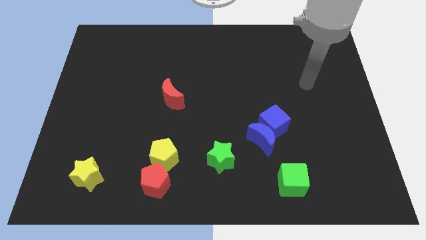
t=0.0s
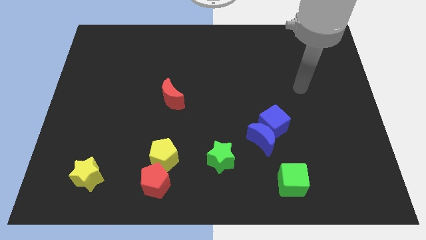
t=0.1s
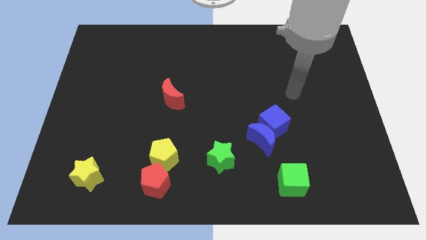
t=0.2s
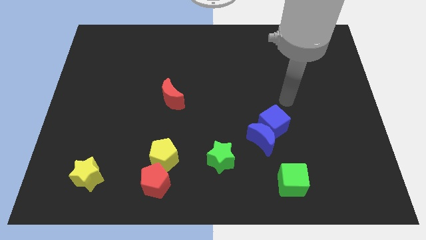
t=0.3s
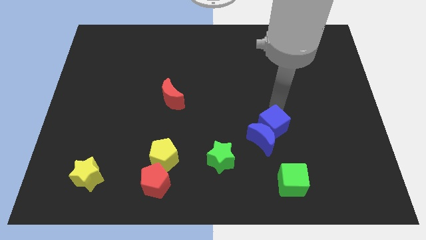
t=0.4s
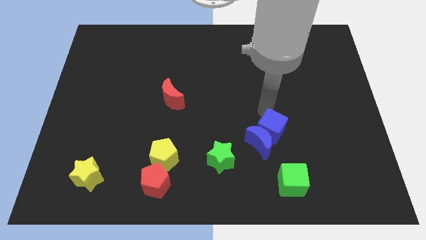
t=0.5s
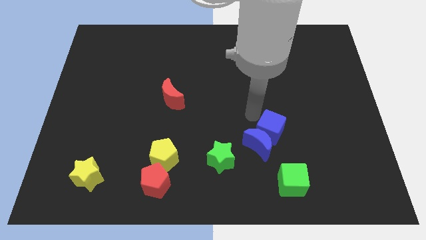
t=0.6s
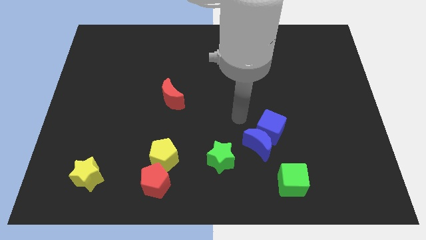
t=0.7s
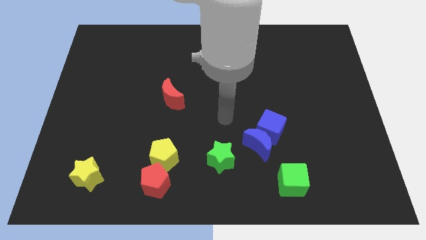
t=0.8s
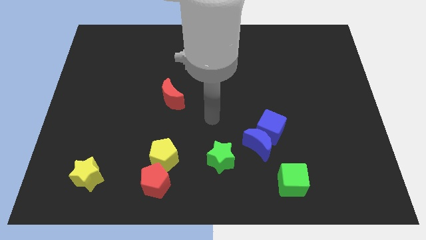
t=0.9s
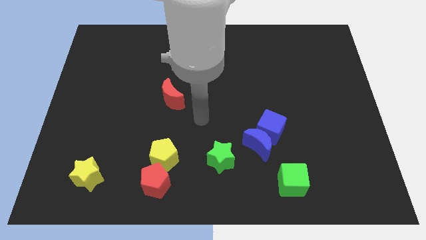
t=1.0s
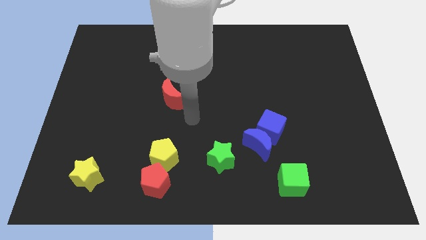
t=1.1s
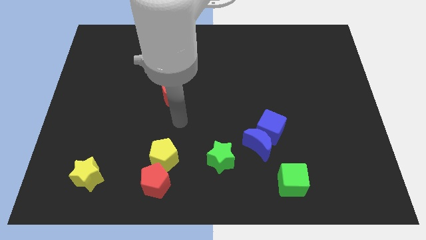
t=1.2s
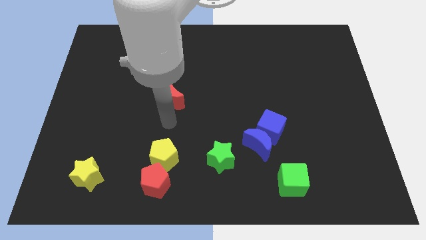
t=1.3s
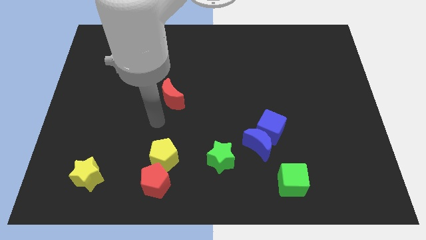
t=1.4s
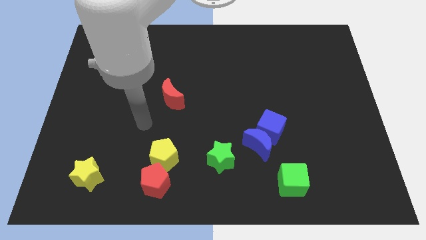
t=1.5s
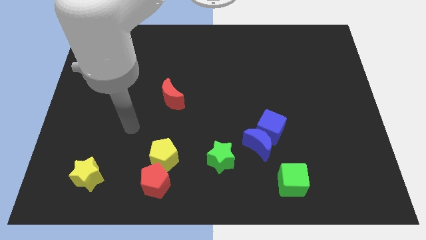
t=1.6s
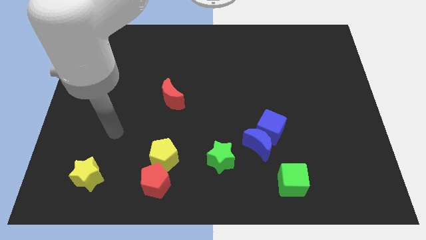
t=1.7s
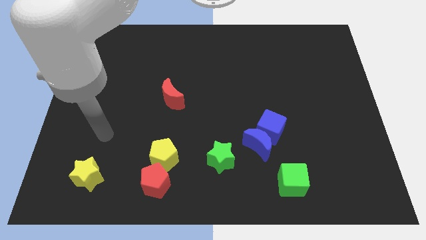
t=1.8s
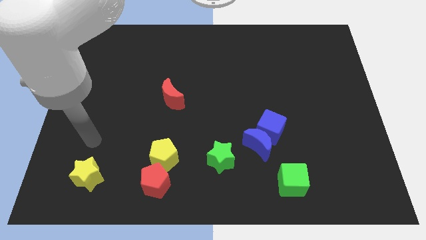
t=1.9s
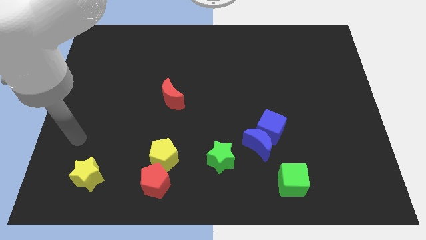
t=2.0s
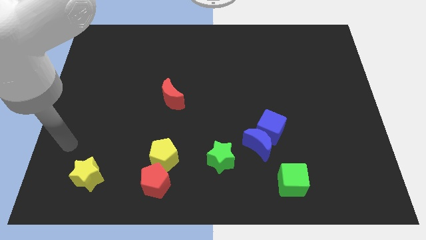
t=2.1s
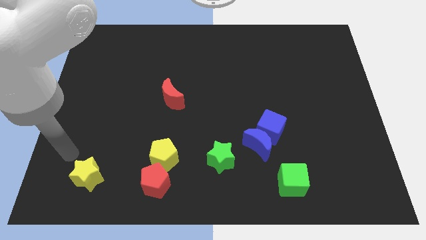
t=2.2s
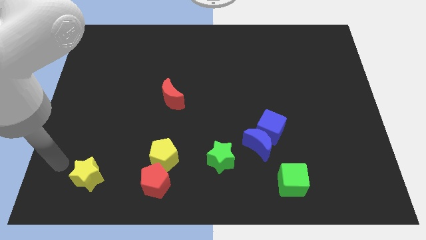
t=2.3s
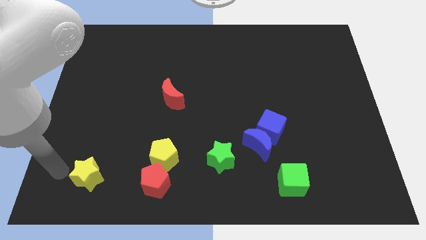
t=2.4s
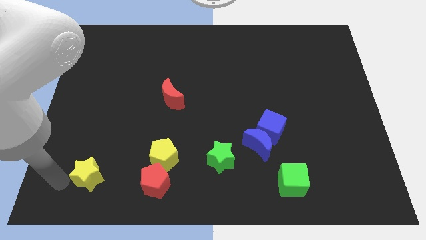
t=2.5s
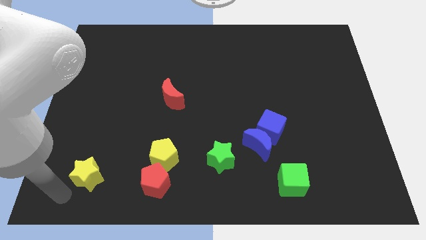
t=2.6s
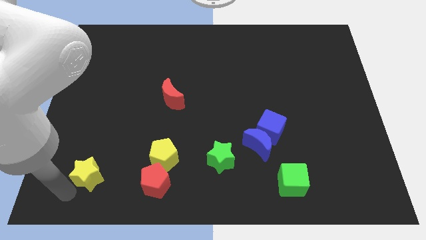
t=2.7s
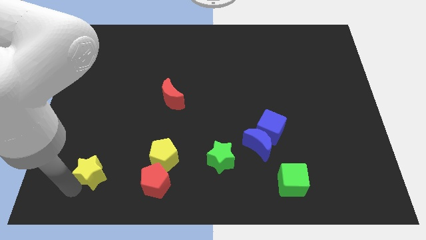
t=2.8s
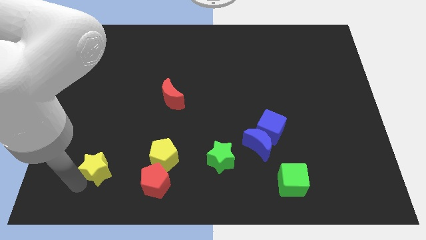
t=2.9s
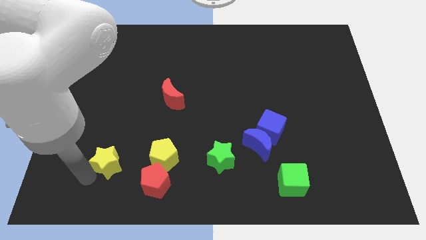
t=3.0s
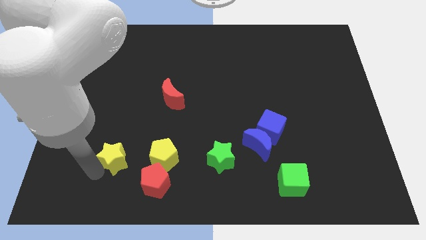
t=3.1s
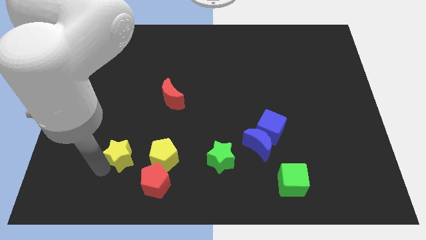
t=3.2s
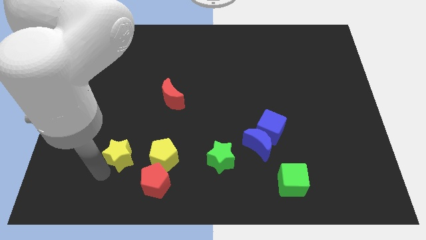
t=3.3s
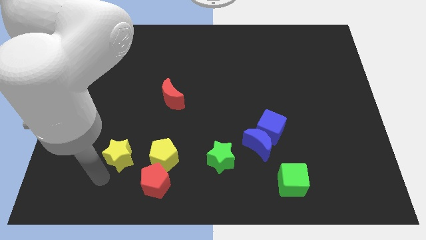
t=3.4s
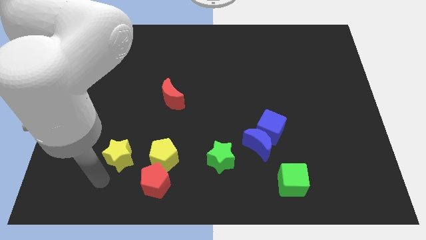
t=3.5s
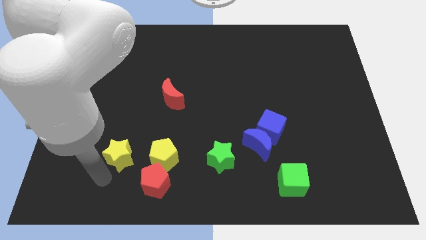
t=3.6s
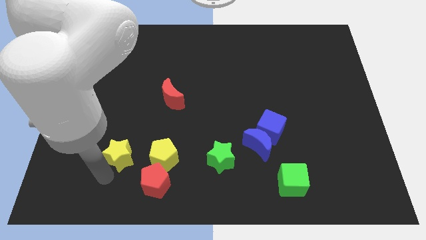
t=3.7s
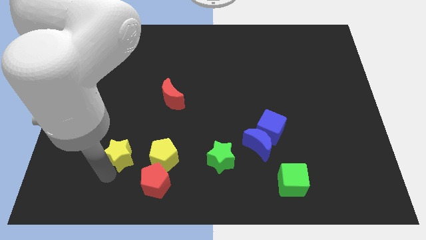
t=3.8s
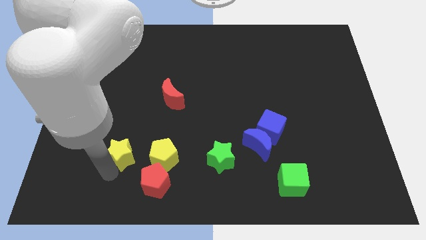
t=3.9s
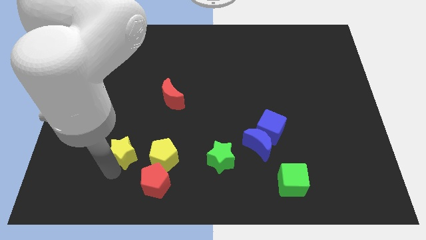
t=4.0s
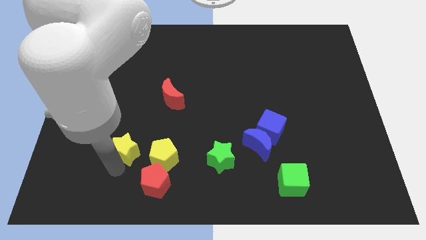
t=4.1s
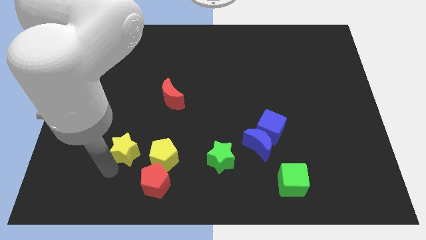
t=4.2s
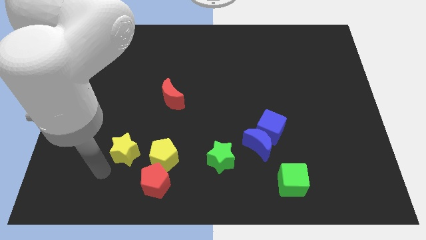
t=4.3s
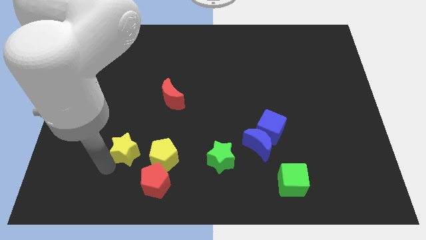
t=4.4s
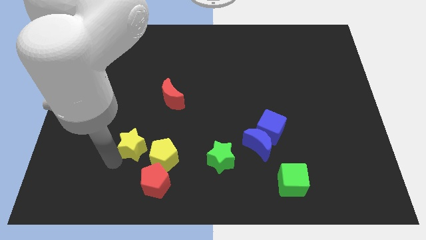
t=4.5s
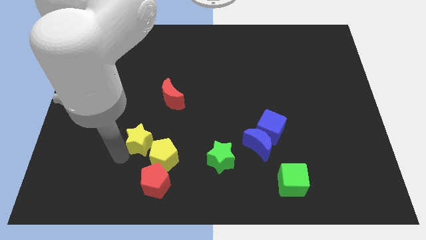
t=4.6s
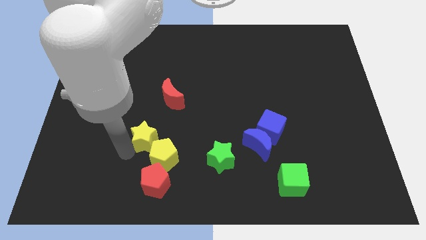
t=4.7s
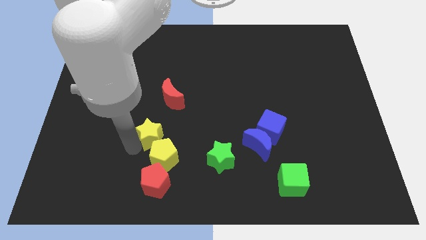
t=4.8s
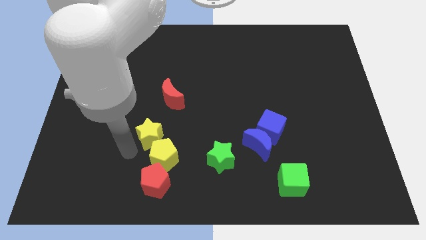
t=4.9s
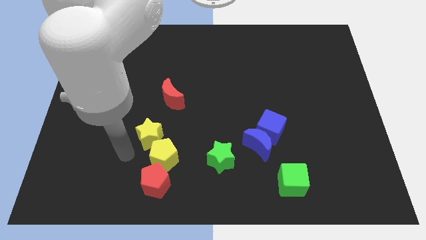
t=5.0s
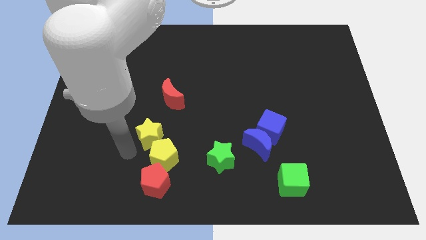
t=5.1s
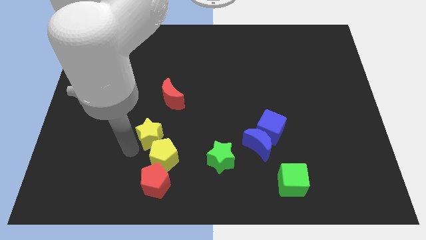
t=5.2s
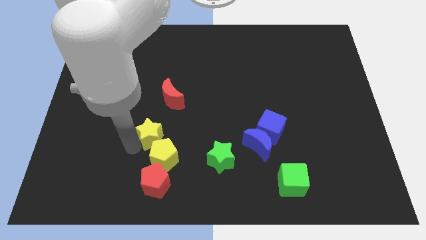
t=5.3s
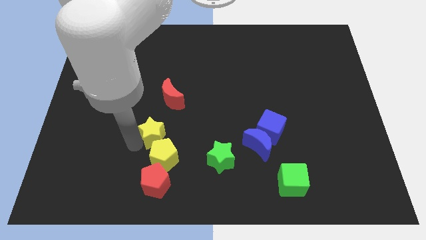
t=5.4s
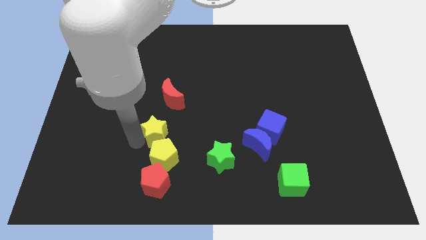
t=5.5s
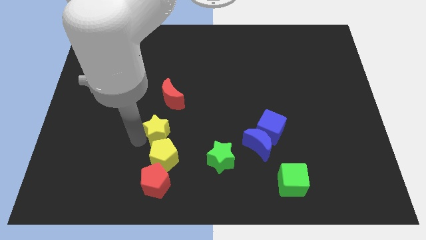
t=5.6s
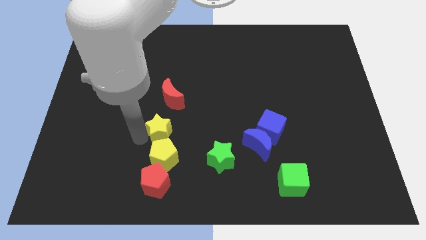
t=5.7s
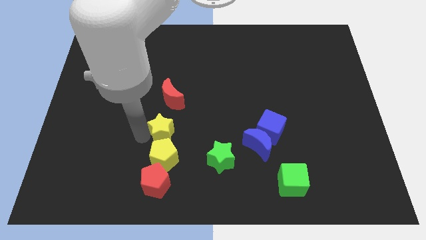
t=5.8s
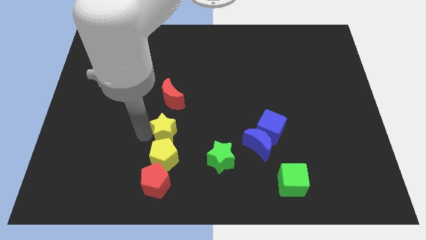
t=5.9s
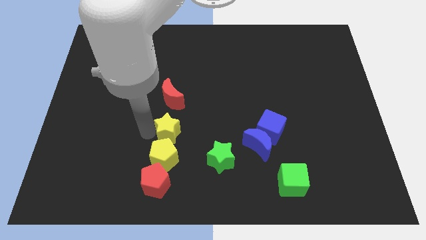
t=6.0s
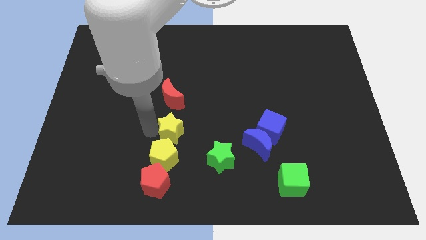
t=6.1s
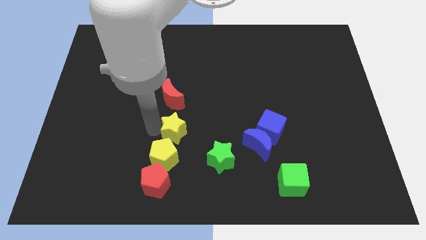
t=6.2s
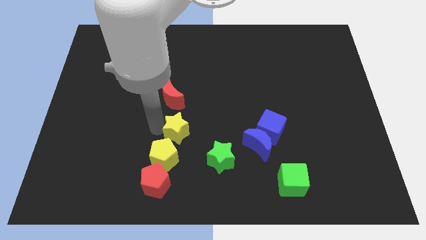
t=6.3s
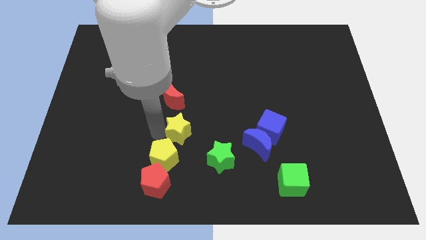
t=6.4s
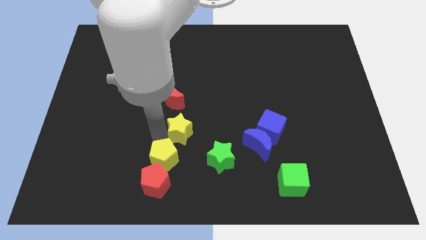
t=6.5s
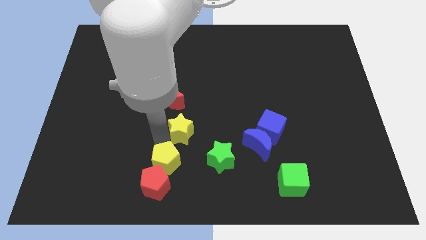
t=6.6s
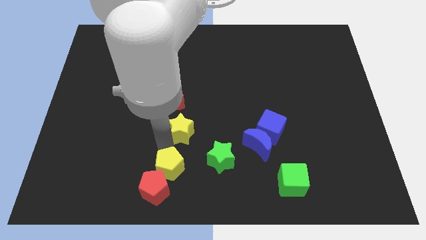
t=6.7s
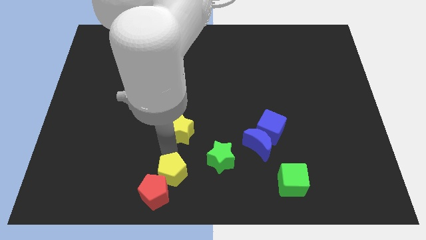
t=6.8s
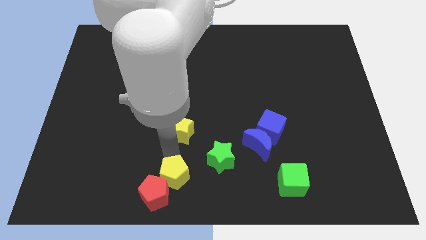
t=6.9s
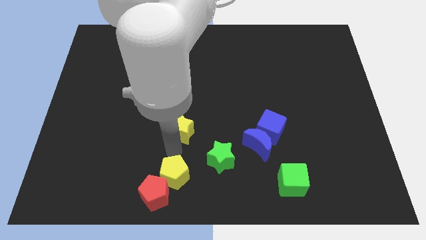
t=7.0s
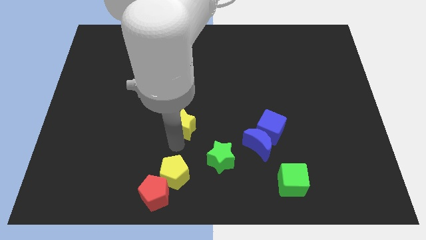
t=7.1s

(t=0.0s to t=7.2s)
slide the yellow star diagonally upwards and to the right

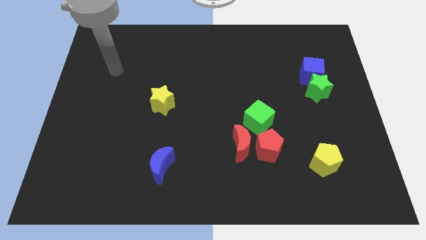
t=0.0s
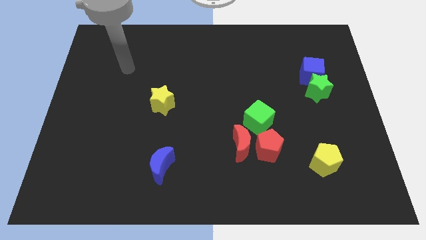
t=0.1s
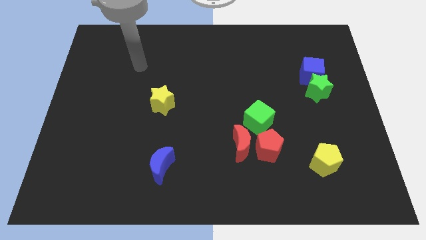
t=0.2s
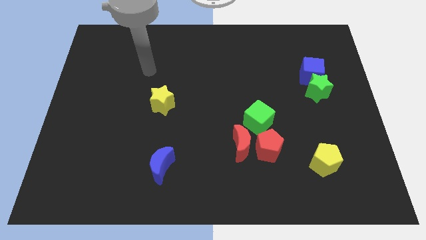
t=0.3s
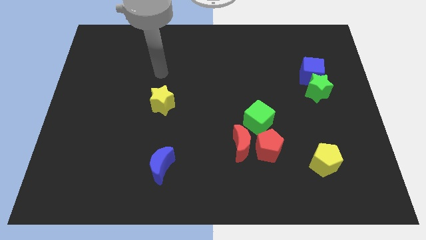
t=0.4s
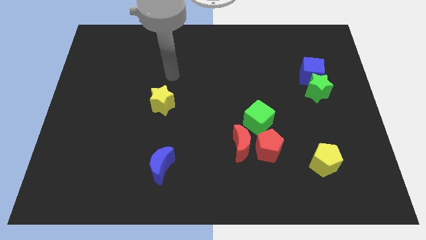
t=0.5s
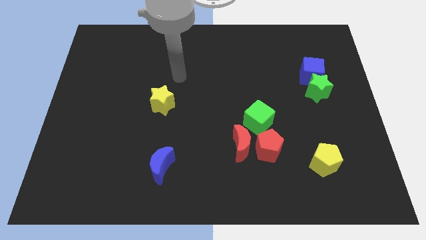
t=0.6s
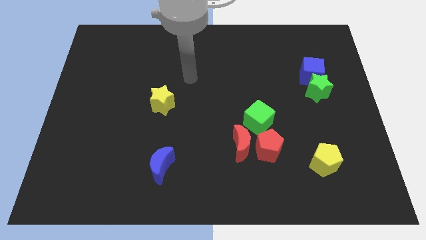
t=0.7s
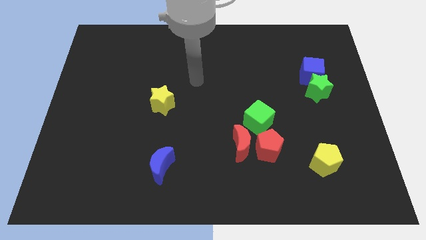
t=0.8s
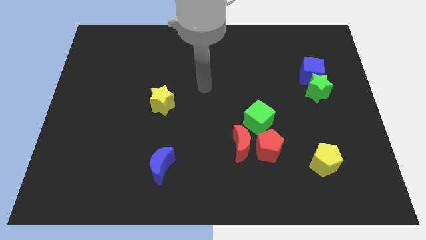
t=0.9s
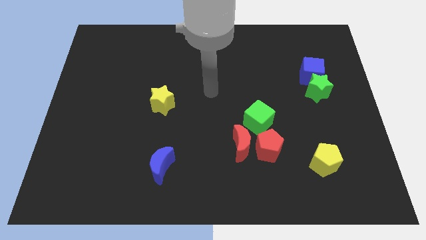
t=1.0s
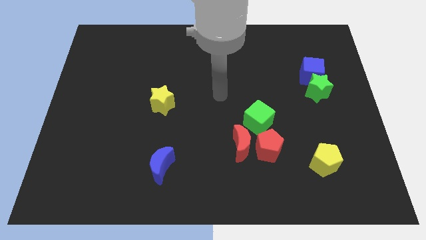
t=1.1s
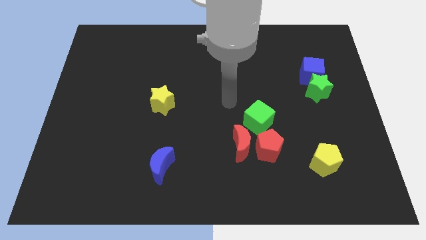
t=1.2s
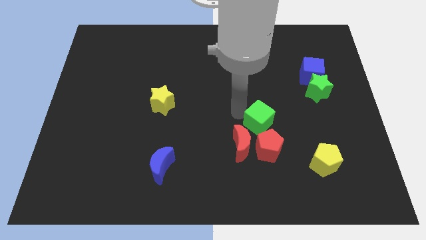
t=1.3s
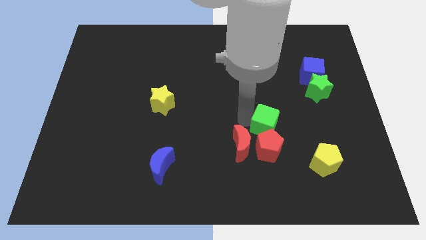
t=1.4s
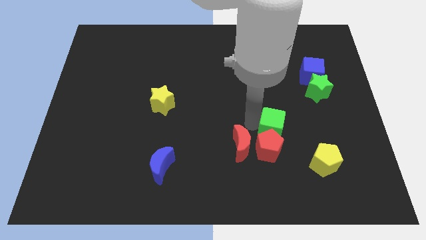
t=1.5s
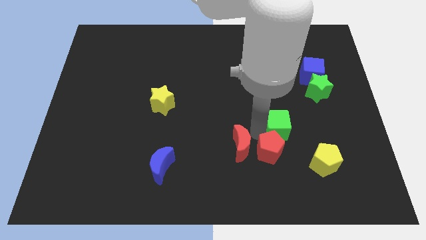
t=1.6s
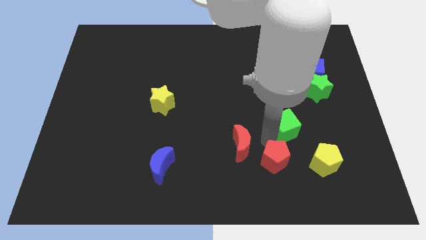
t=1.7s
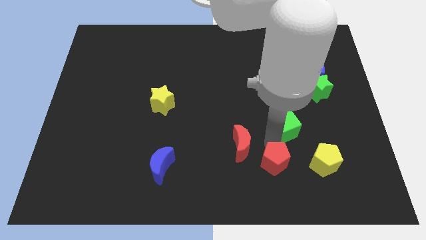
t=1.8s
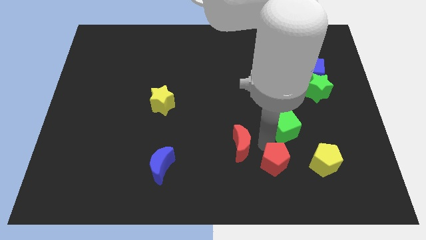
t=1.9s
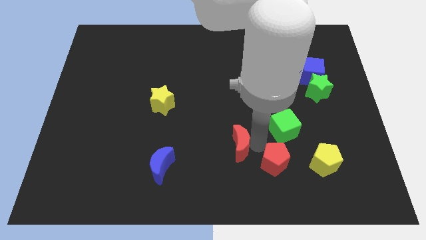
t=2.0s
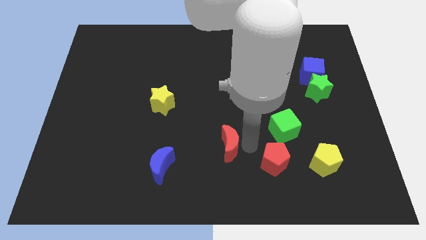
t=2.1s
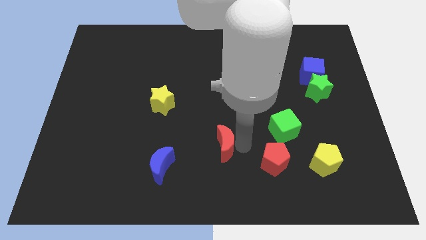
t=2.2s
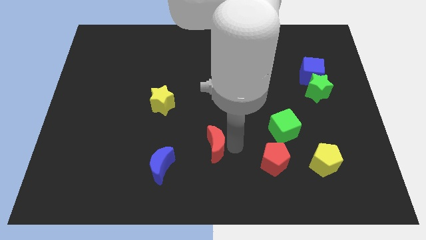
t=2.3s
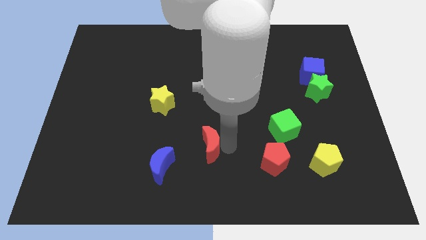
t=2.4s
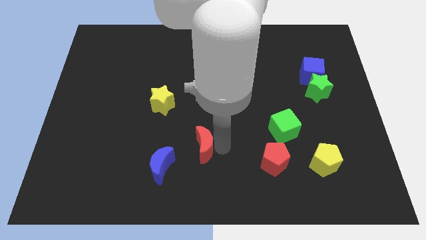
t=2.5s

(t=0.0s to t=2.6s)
slightly slide the red moon to the left
